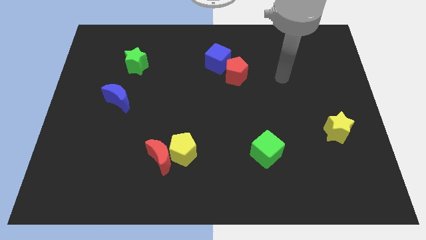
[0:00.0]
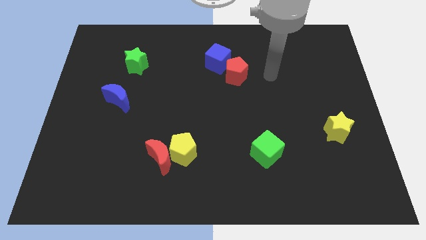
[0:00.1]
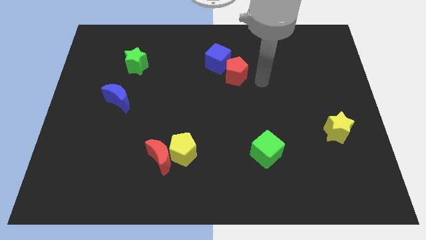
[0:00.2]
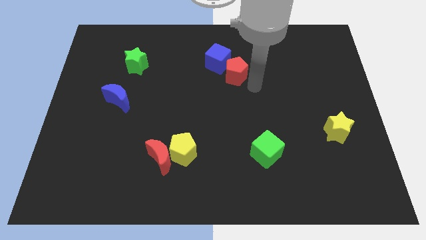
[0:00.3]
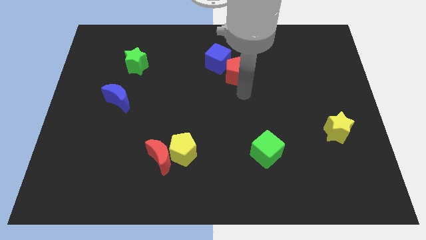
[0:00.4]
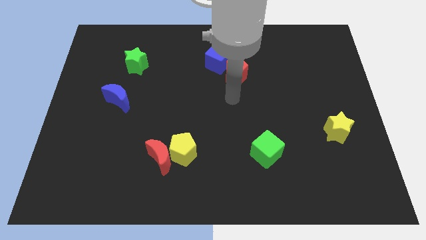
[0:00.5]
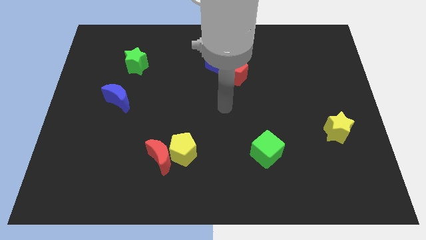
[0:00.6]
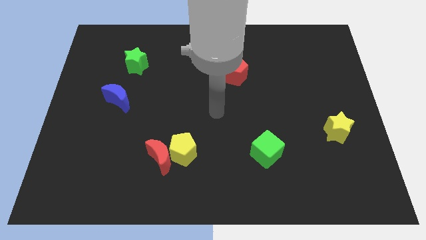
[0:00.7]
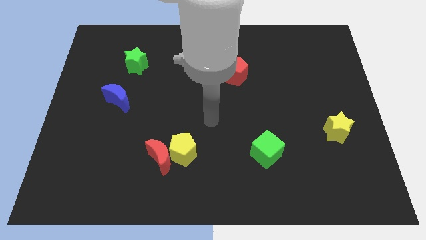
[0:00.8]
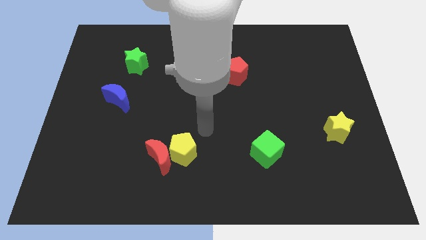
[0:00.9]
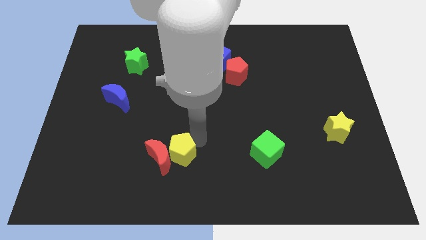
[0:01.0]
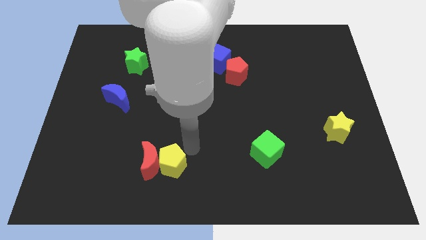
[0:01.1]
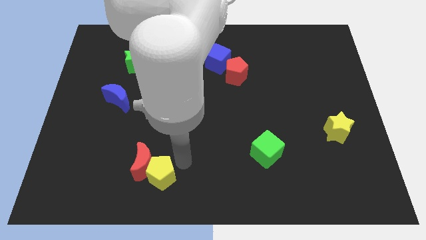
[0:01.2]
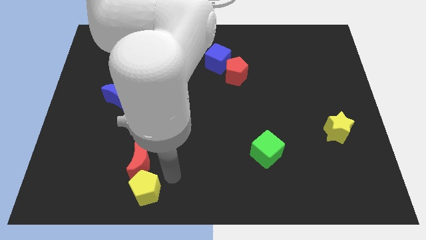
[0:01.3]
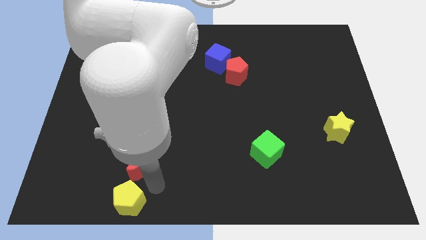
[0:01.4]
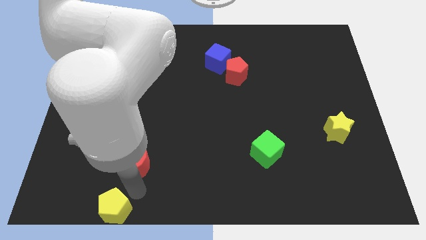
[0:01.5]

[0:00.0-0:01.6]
move the red moon away from the yellow pentagon

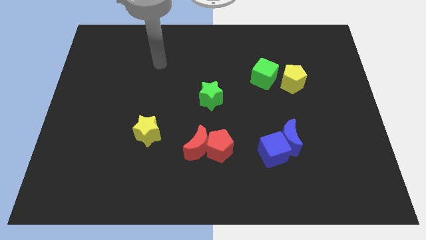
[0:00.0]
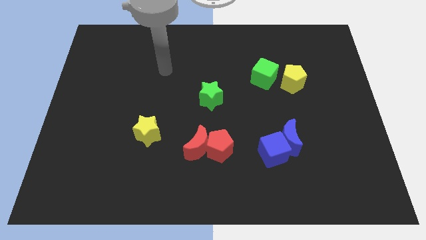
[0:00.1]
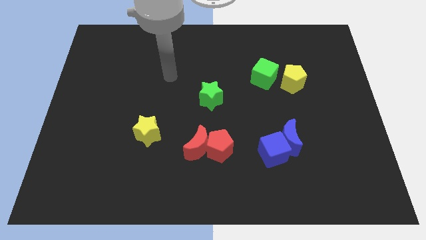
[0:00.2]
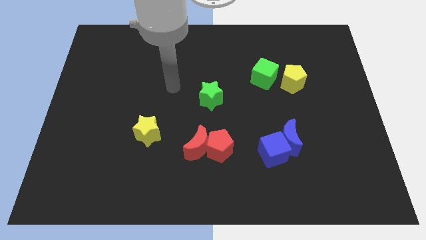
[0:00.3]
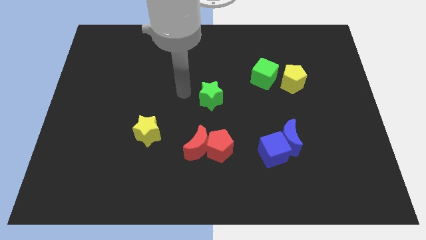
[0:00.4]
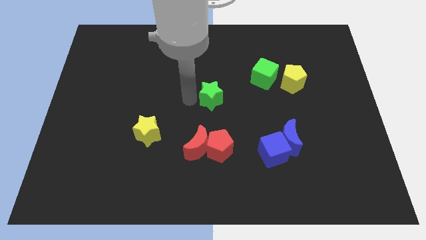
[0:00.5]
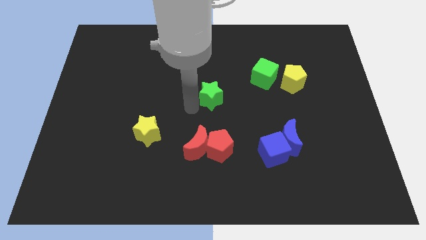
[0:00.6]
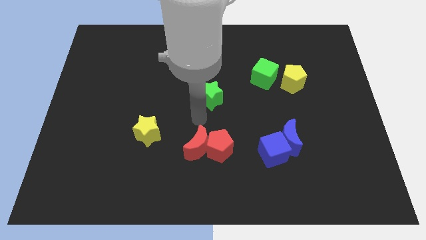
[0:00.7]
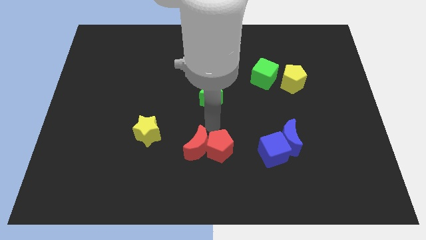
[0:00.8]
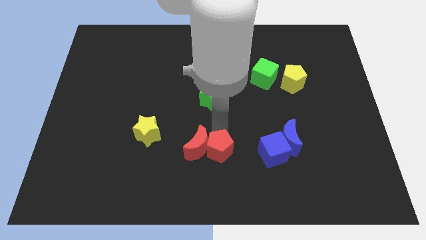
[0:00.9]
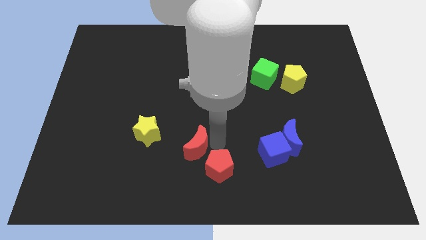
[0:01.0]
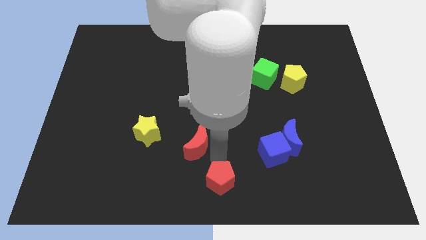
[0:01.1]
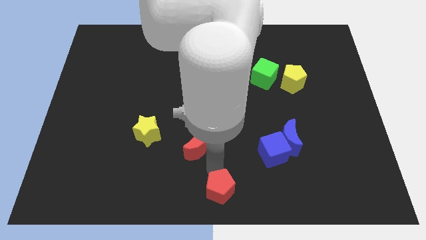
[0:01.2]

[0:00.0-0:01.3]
separate the red moon from the red pentagon

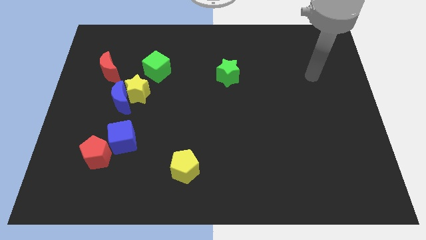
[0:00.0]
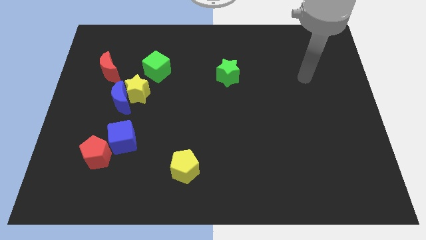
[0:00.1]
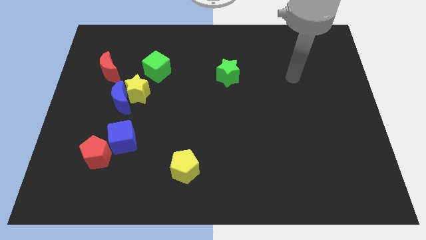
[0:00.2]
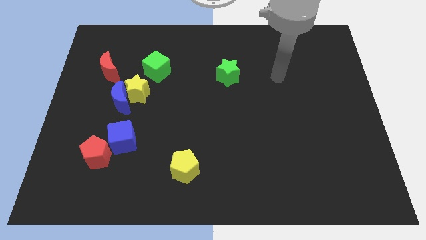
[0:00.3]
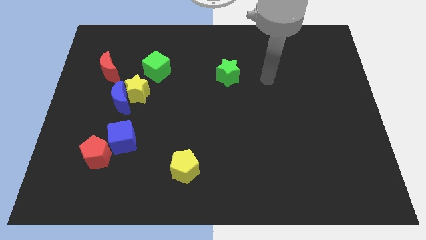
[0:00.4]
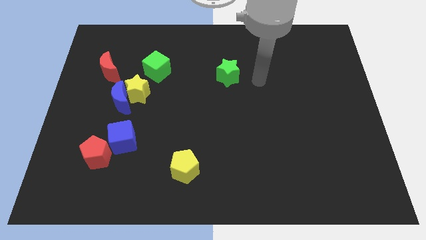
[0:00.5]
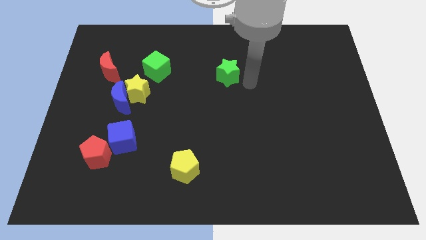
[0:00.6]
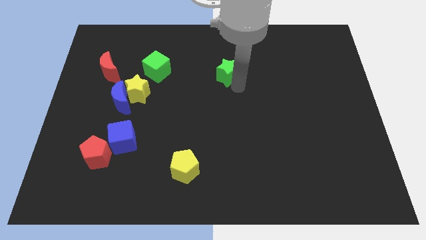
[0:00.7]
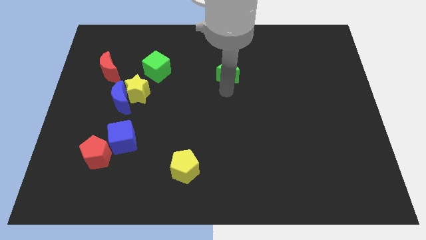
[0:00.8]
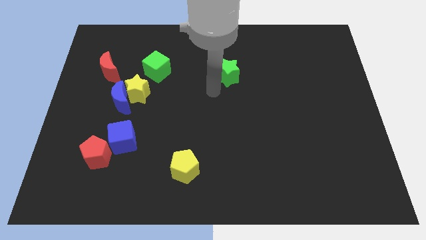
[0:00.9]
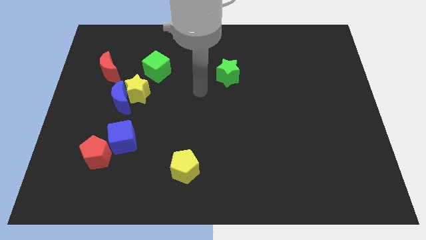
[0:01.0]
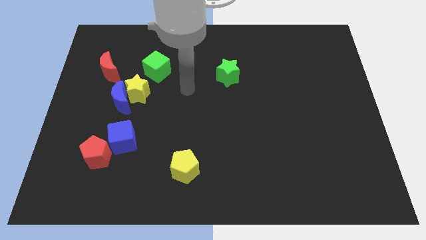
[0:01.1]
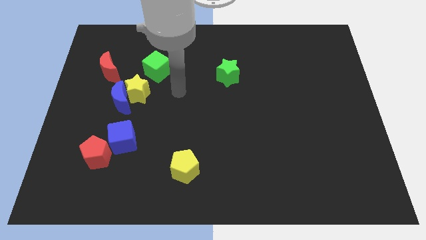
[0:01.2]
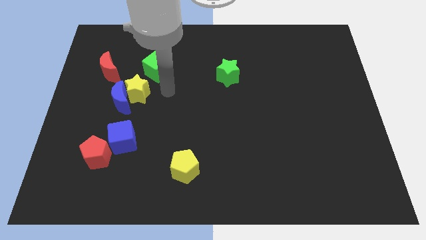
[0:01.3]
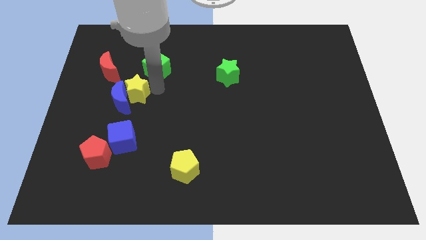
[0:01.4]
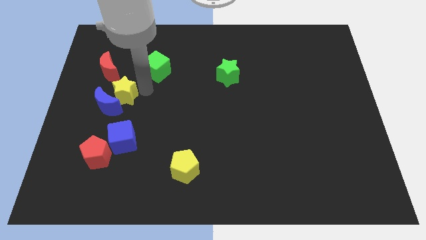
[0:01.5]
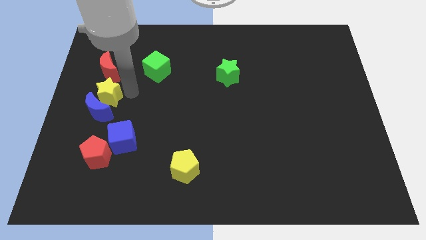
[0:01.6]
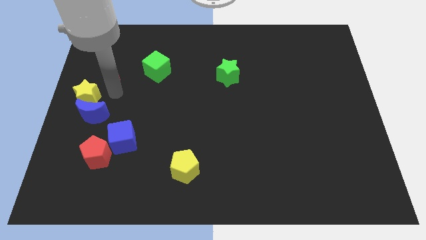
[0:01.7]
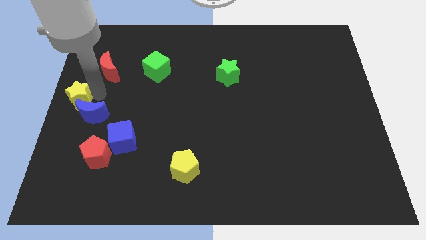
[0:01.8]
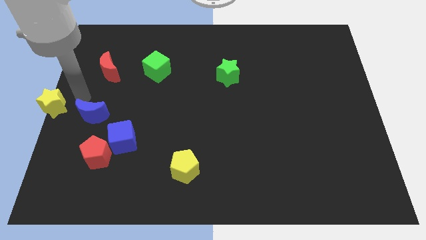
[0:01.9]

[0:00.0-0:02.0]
move the blue moon away from the yellow star

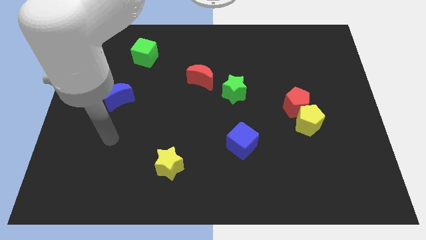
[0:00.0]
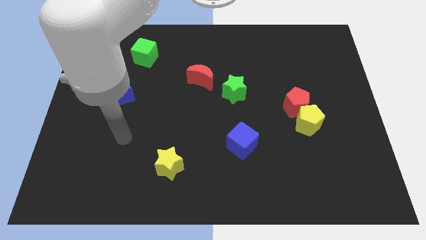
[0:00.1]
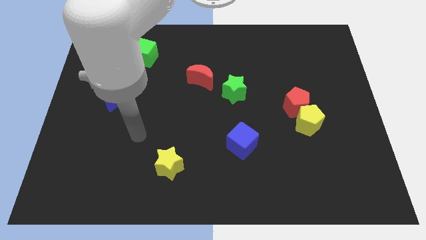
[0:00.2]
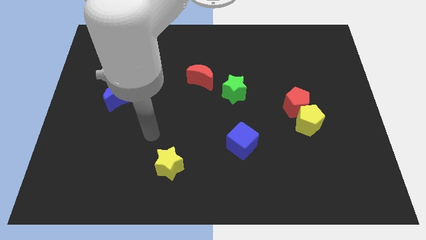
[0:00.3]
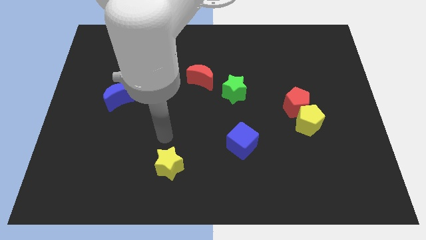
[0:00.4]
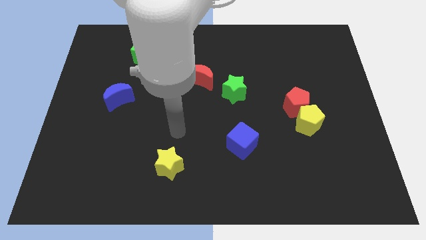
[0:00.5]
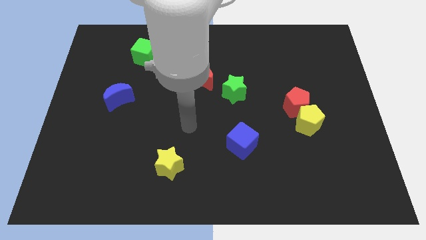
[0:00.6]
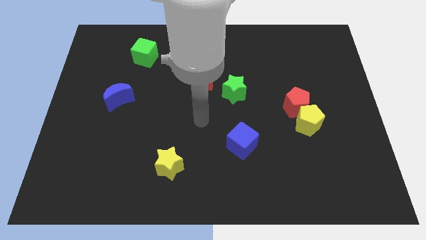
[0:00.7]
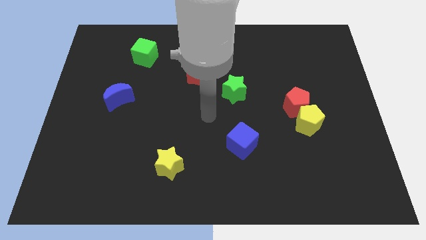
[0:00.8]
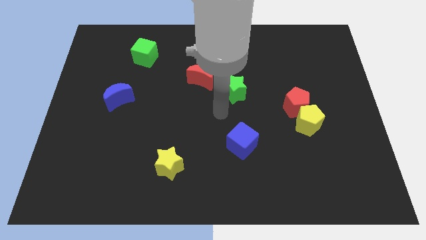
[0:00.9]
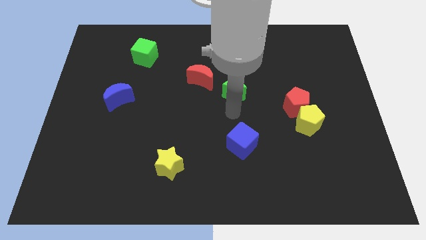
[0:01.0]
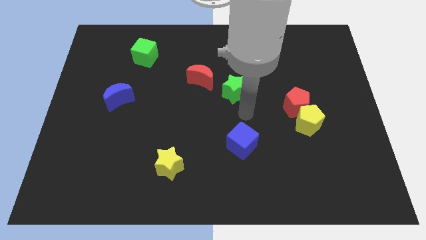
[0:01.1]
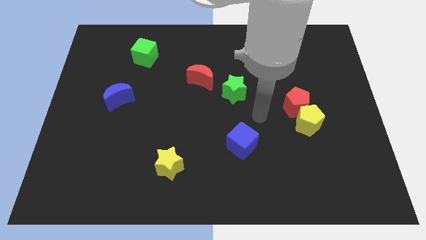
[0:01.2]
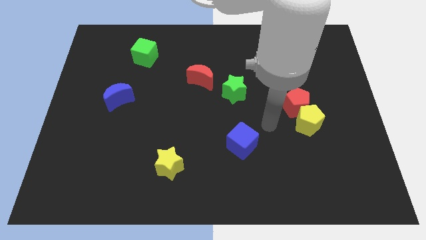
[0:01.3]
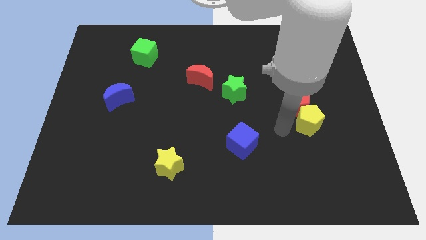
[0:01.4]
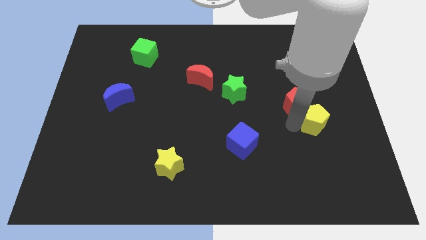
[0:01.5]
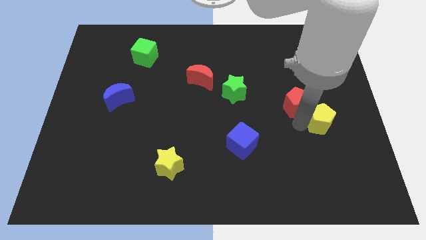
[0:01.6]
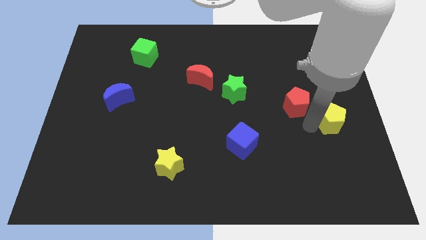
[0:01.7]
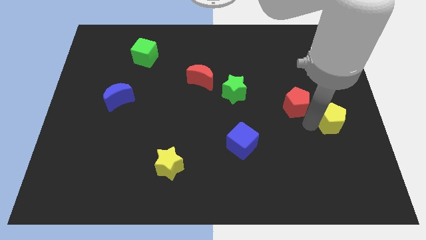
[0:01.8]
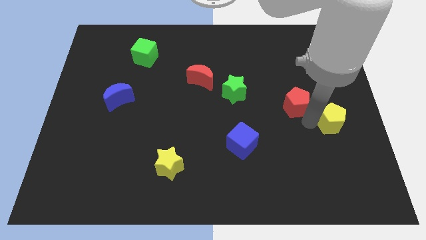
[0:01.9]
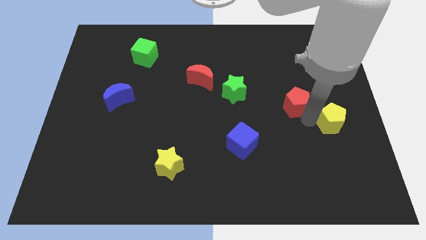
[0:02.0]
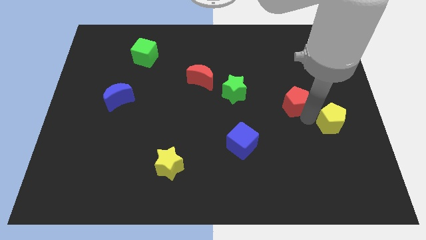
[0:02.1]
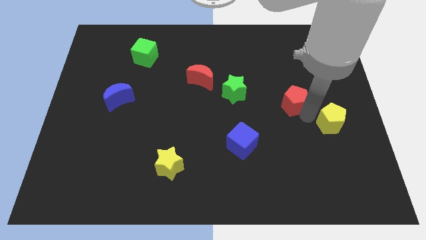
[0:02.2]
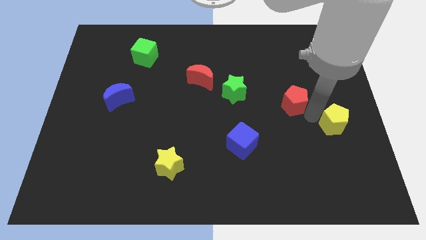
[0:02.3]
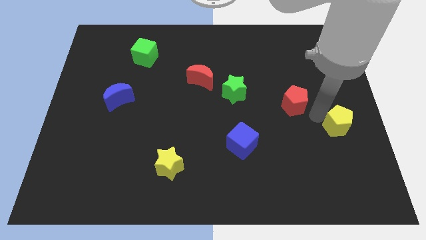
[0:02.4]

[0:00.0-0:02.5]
separate the red pentagon from the yellow pentagon

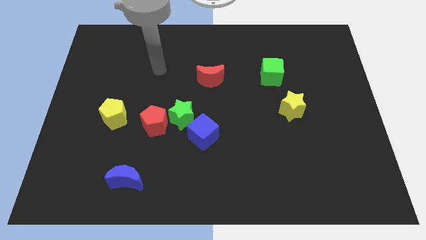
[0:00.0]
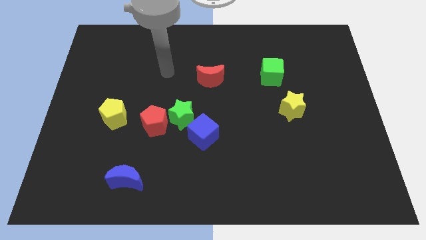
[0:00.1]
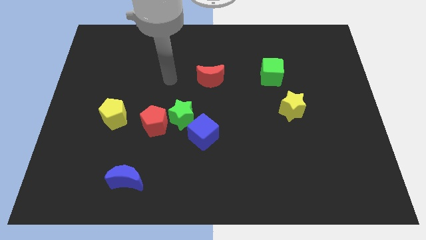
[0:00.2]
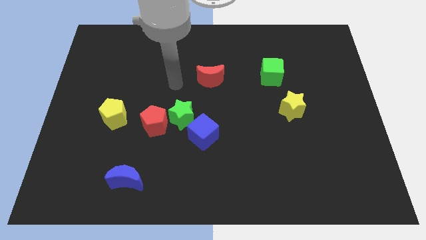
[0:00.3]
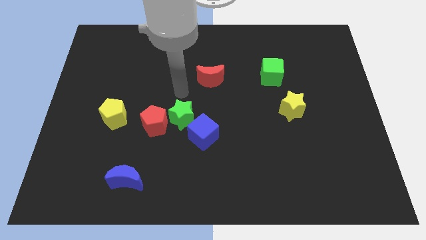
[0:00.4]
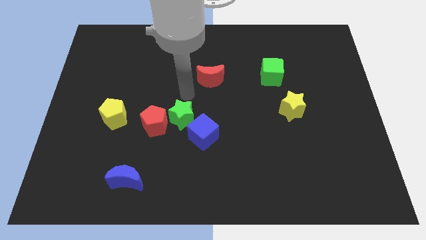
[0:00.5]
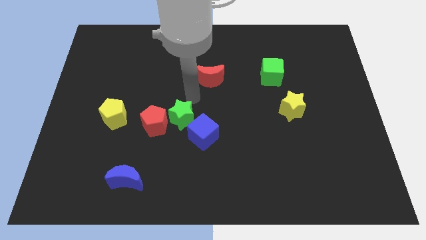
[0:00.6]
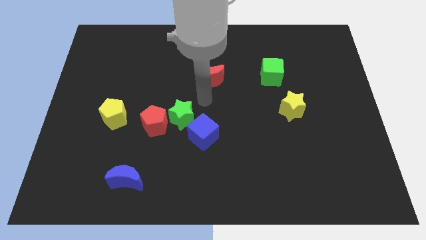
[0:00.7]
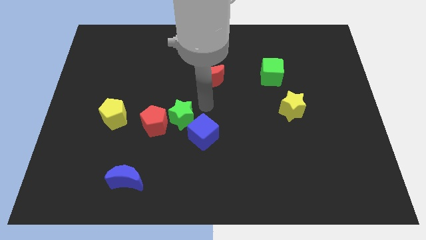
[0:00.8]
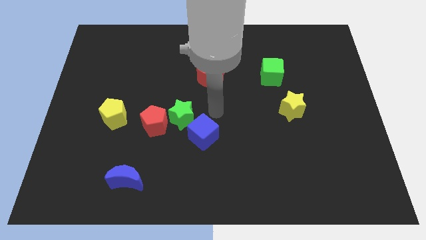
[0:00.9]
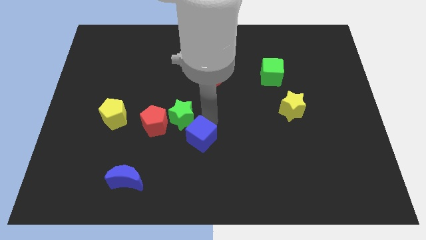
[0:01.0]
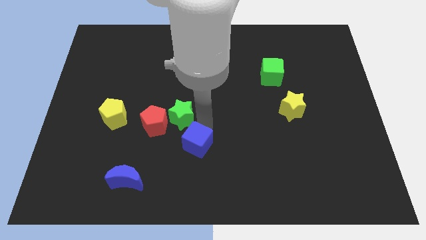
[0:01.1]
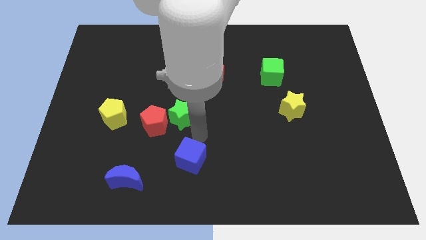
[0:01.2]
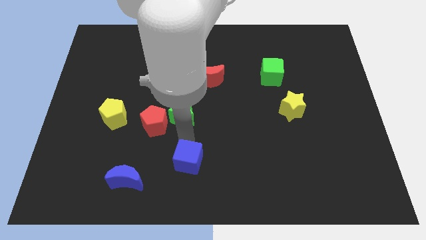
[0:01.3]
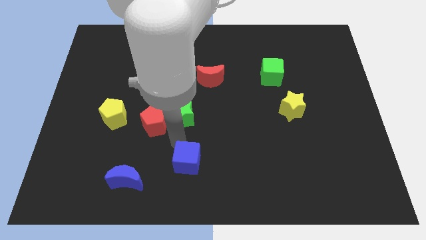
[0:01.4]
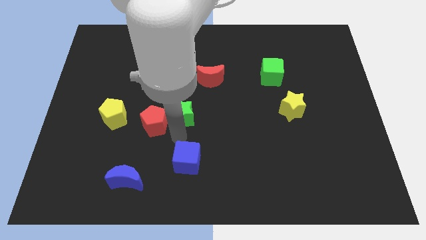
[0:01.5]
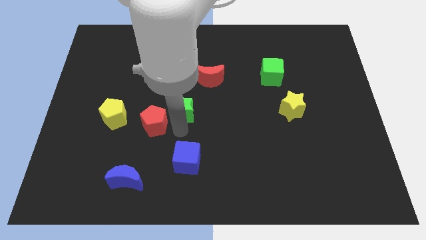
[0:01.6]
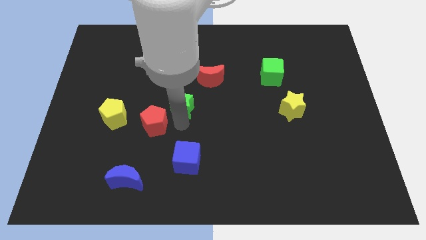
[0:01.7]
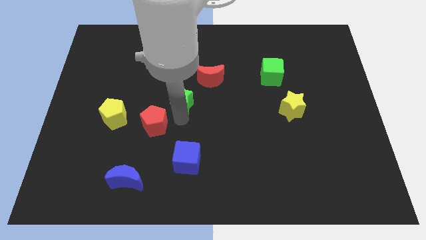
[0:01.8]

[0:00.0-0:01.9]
separate the green star from the red pentagon and blue cube

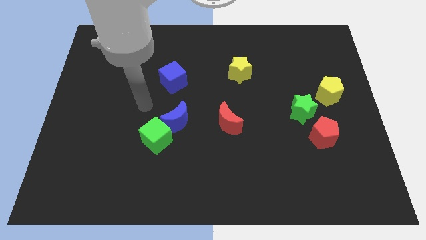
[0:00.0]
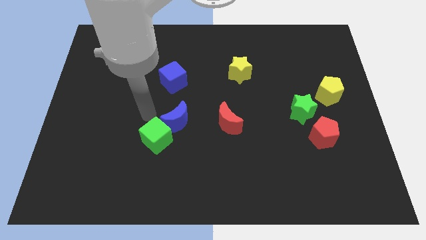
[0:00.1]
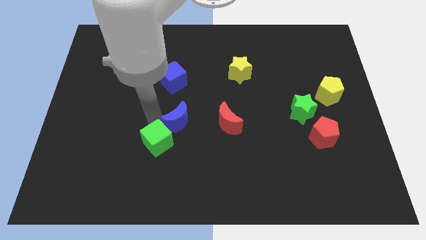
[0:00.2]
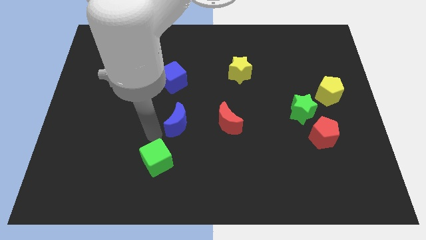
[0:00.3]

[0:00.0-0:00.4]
move the blue moon away from the green cube
